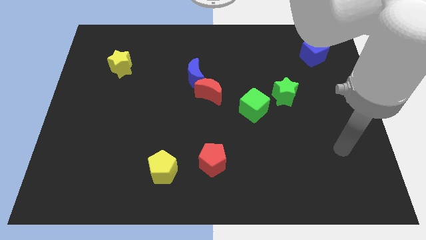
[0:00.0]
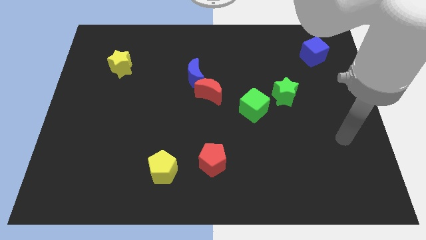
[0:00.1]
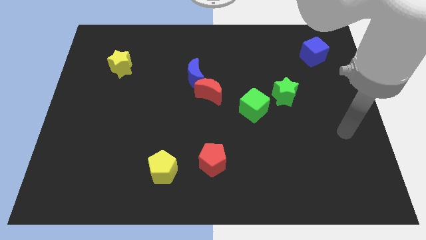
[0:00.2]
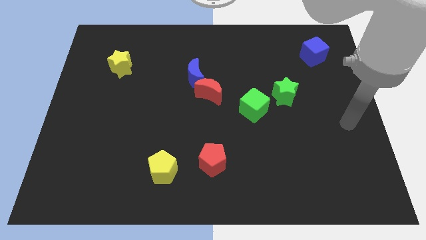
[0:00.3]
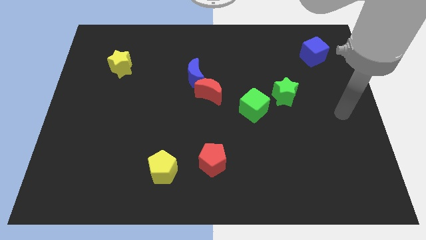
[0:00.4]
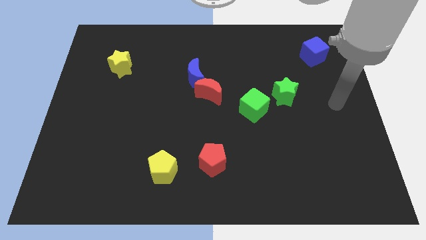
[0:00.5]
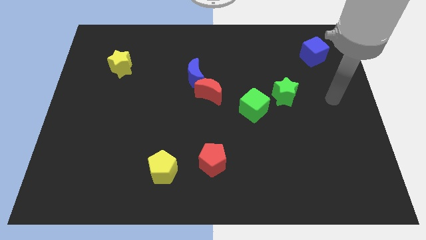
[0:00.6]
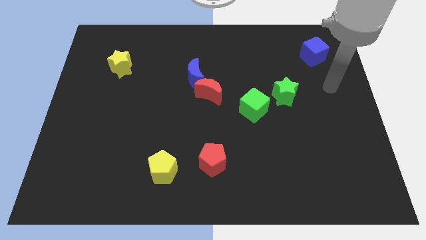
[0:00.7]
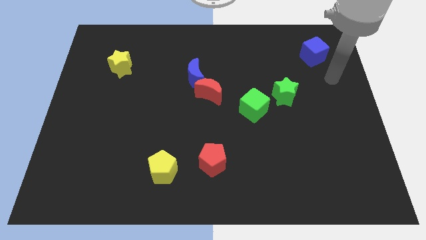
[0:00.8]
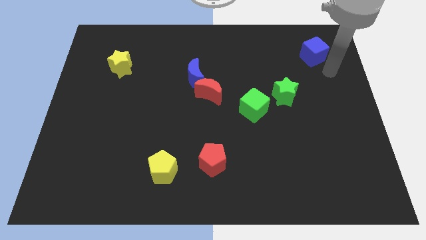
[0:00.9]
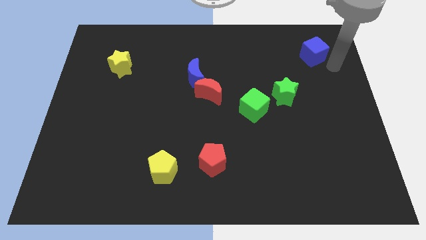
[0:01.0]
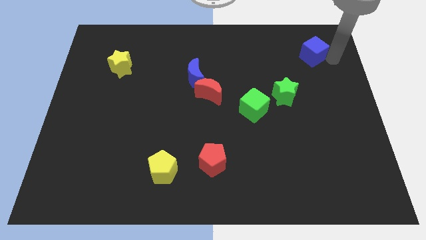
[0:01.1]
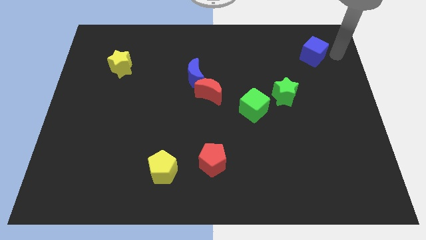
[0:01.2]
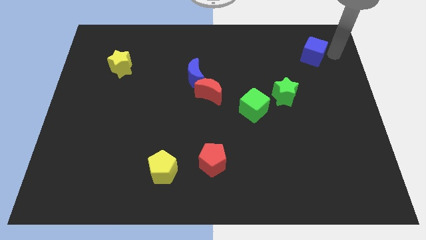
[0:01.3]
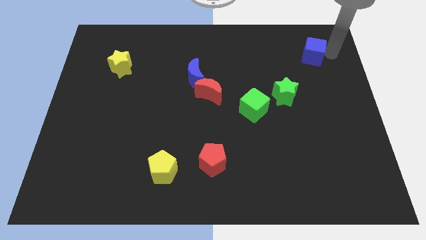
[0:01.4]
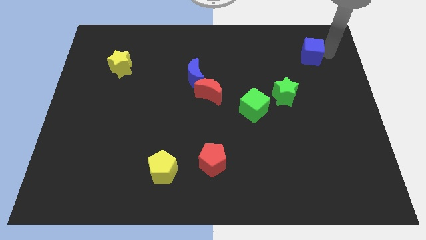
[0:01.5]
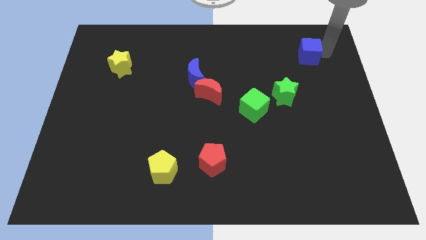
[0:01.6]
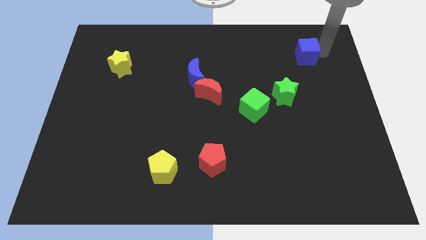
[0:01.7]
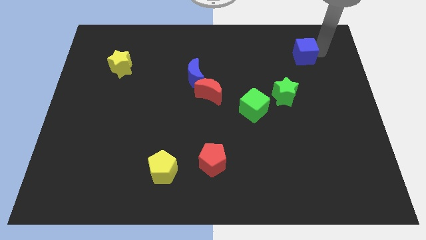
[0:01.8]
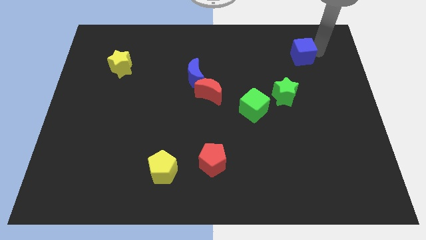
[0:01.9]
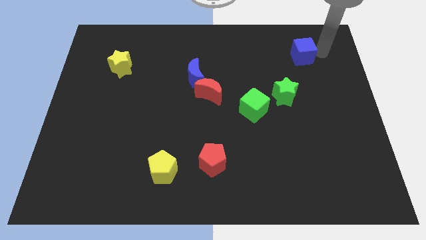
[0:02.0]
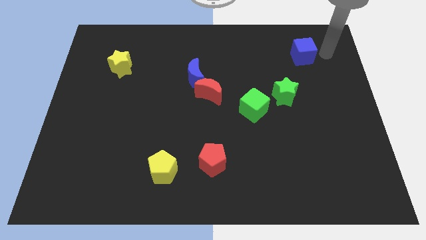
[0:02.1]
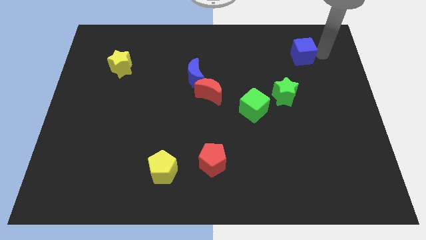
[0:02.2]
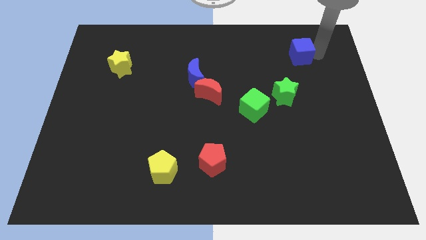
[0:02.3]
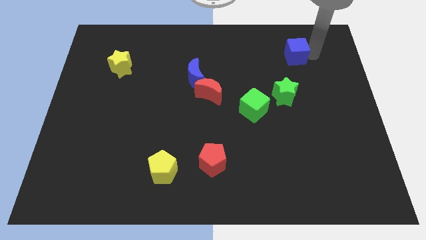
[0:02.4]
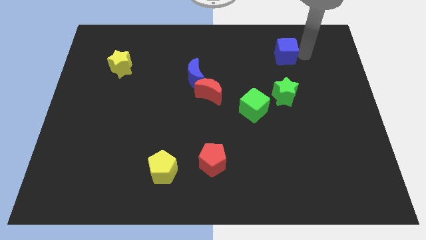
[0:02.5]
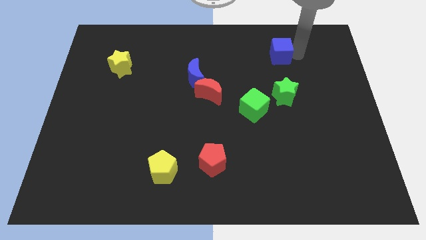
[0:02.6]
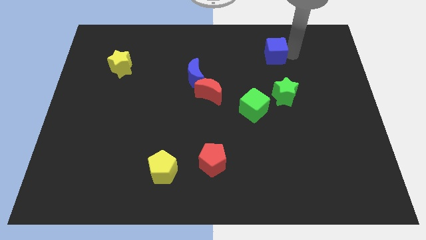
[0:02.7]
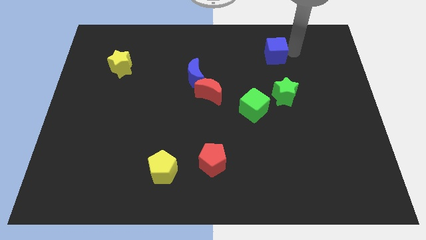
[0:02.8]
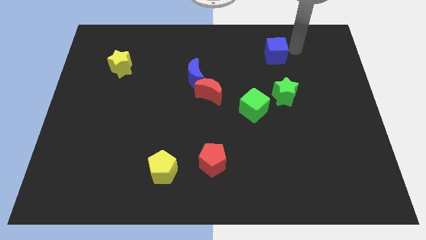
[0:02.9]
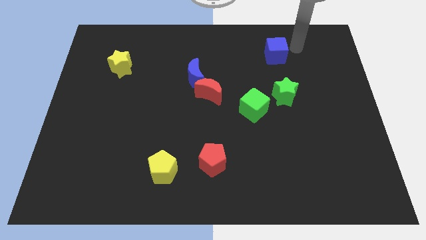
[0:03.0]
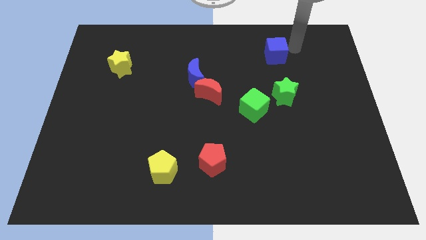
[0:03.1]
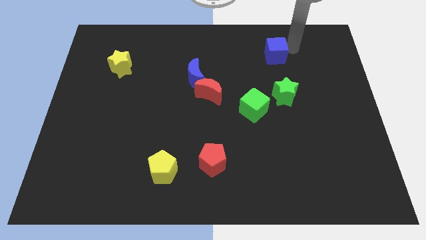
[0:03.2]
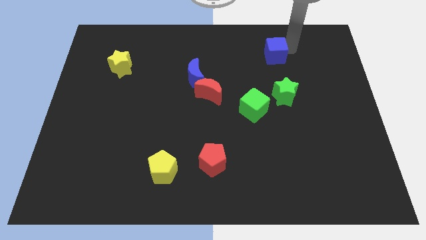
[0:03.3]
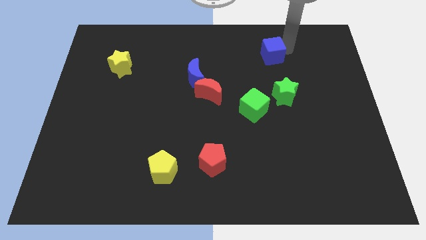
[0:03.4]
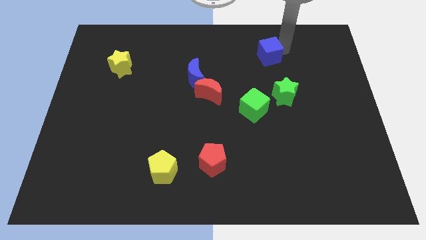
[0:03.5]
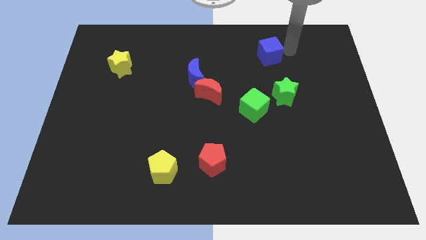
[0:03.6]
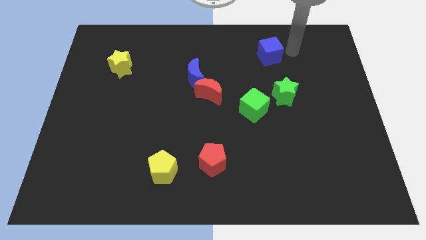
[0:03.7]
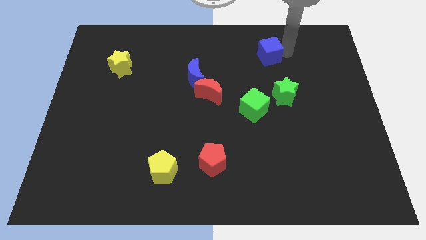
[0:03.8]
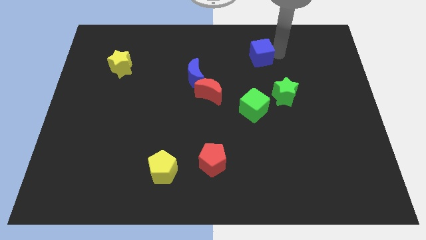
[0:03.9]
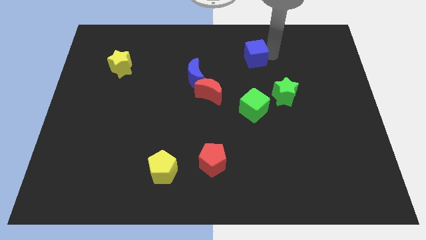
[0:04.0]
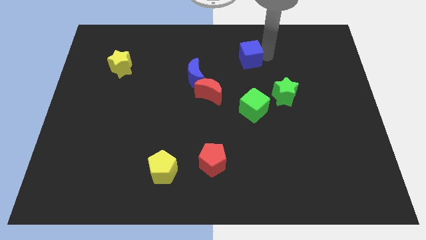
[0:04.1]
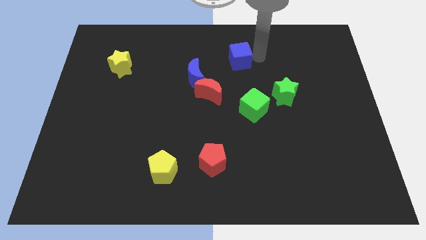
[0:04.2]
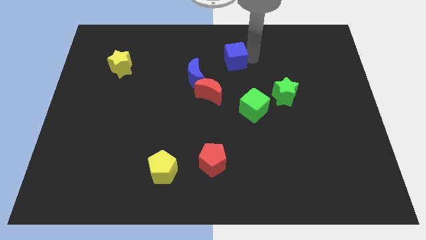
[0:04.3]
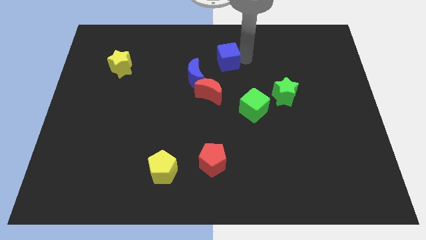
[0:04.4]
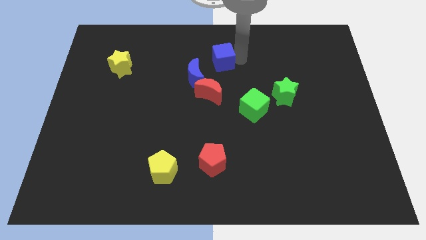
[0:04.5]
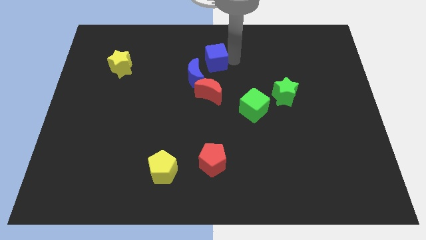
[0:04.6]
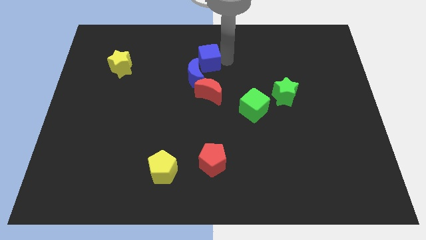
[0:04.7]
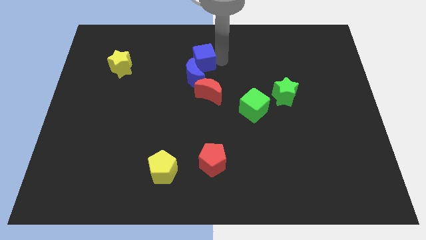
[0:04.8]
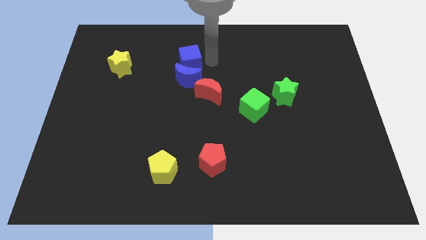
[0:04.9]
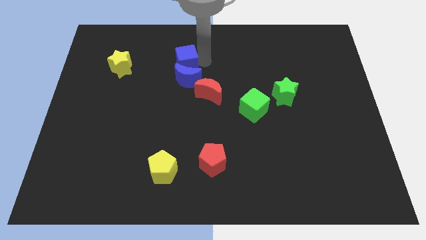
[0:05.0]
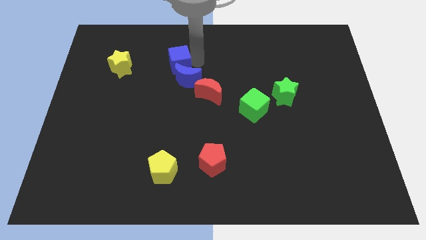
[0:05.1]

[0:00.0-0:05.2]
push the blue cube just right of the yellow star

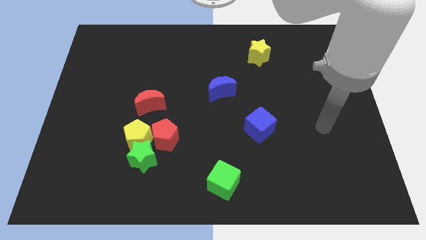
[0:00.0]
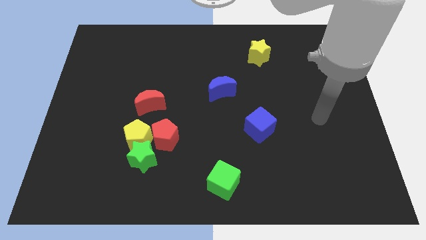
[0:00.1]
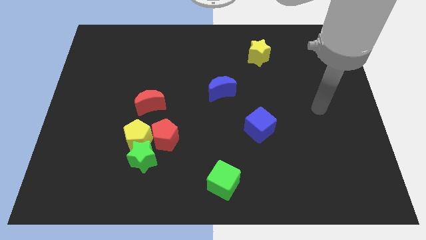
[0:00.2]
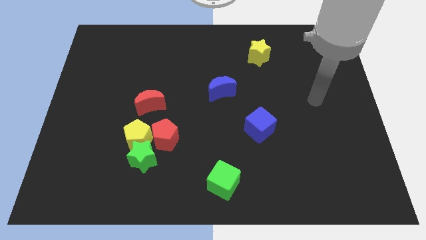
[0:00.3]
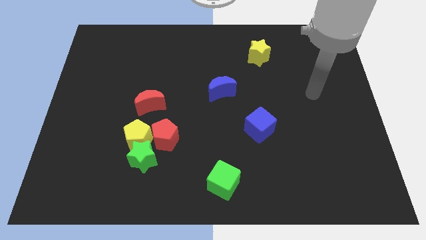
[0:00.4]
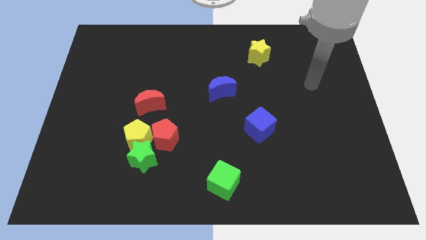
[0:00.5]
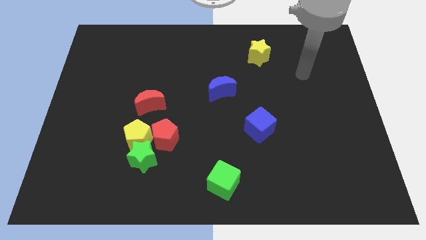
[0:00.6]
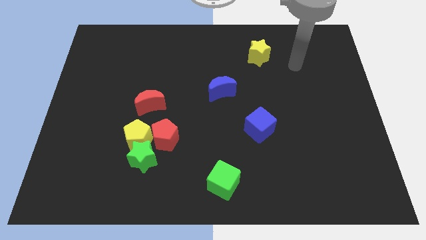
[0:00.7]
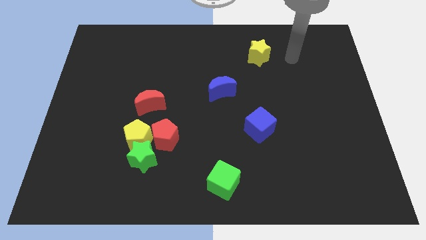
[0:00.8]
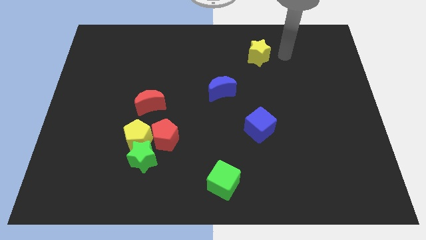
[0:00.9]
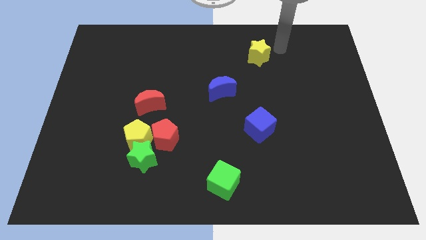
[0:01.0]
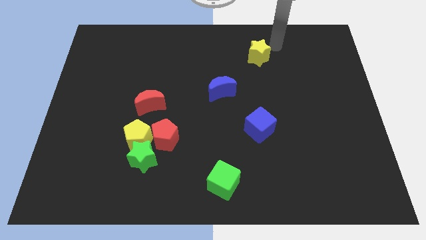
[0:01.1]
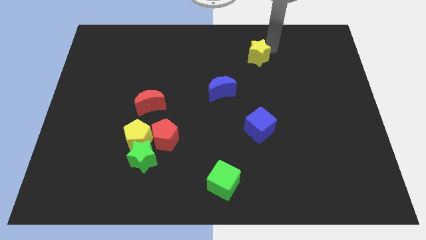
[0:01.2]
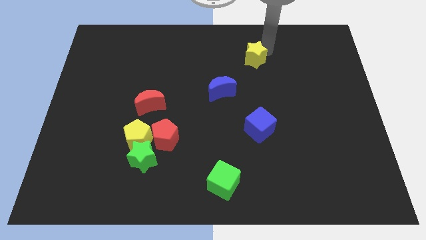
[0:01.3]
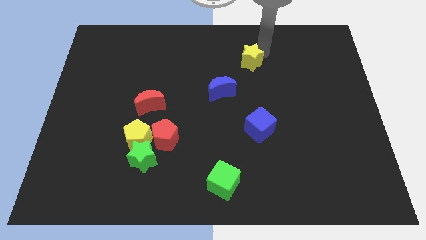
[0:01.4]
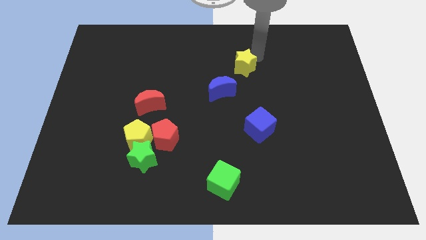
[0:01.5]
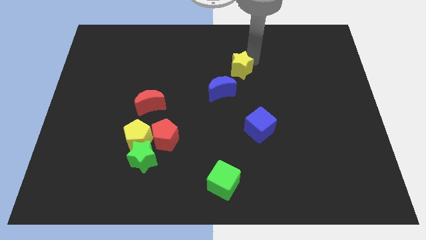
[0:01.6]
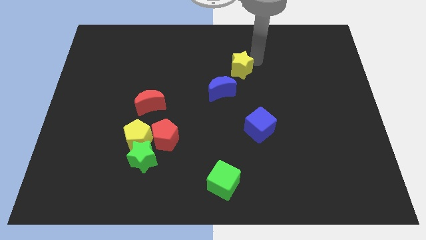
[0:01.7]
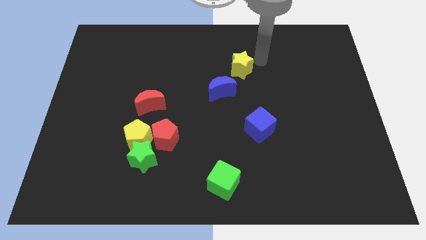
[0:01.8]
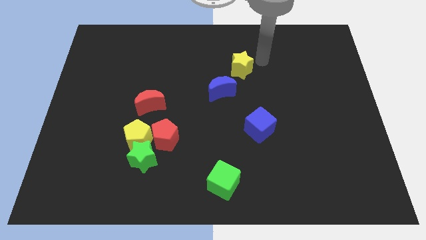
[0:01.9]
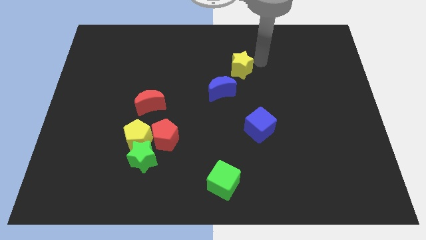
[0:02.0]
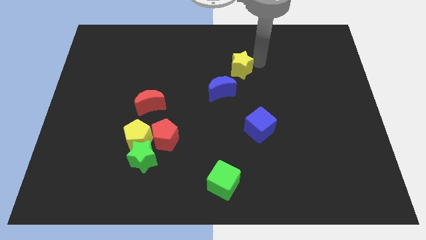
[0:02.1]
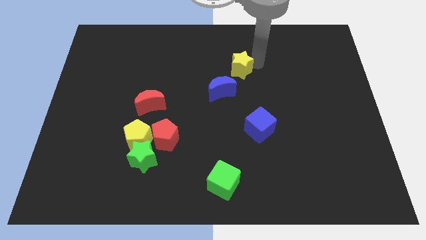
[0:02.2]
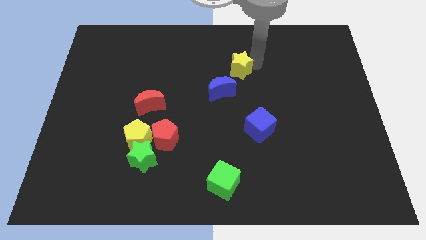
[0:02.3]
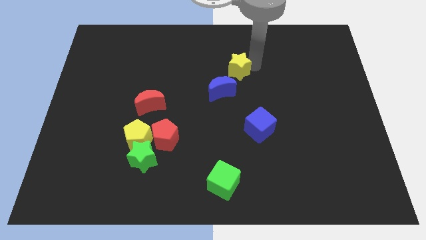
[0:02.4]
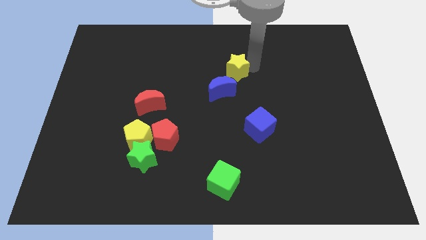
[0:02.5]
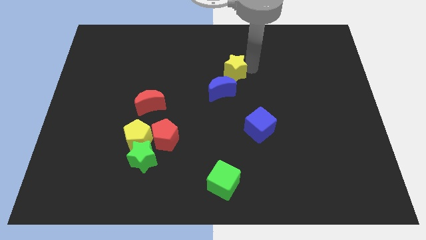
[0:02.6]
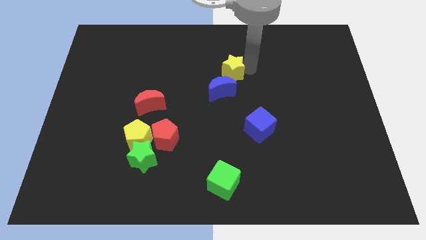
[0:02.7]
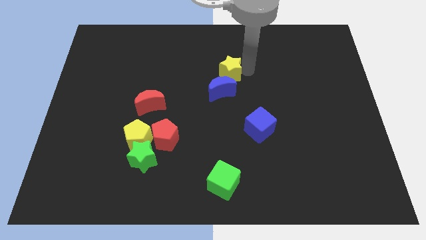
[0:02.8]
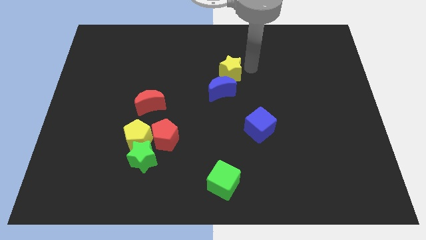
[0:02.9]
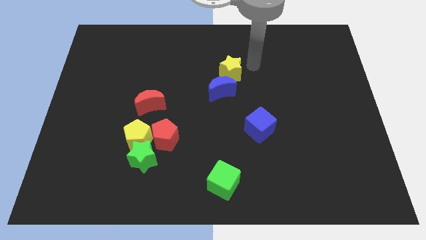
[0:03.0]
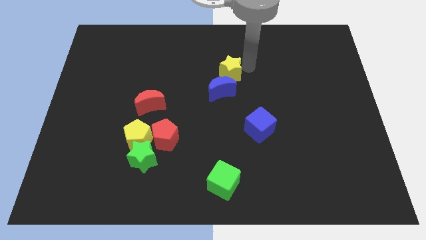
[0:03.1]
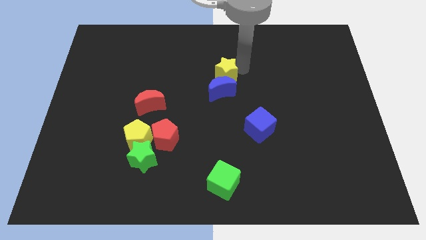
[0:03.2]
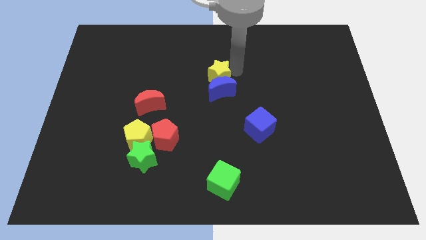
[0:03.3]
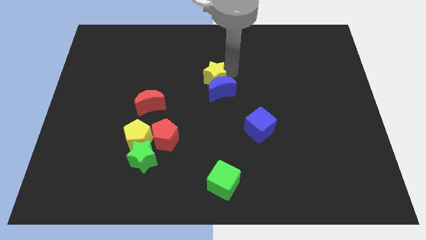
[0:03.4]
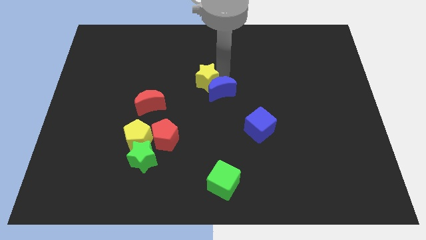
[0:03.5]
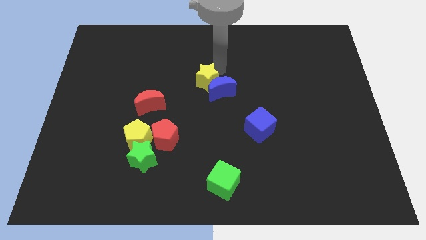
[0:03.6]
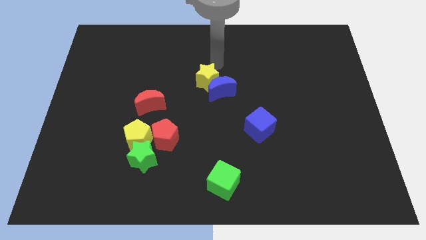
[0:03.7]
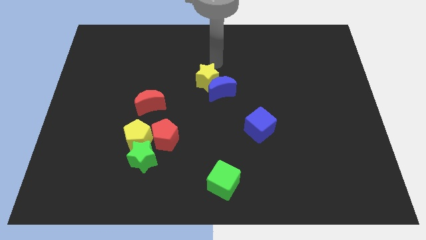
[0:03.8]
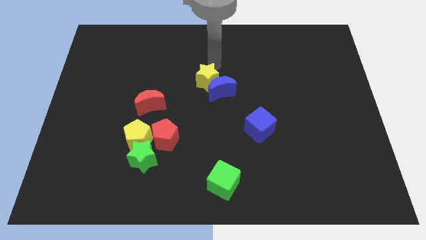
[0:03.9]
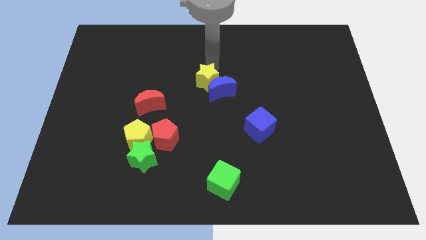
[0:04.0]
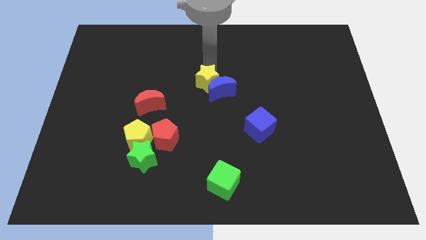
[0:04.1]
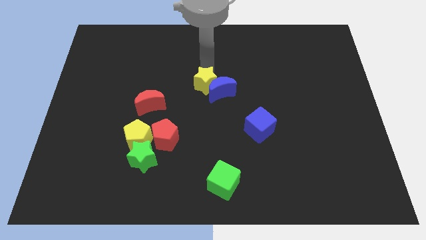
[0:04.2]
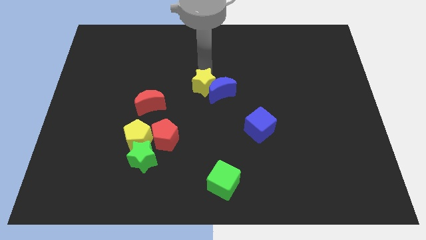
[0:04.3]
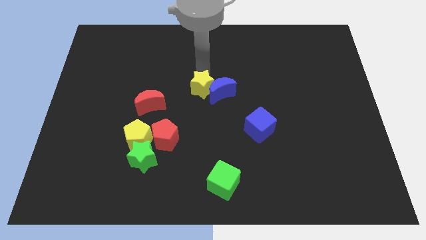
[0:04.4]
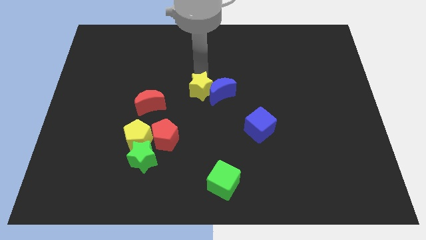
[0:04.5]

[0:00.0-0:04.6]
push the yellow star just right of the red moon
